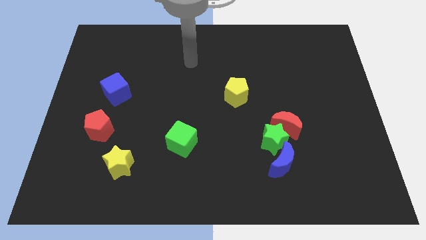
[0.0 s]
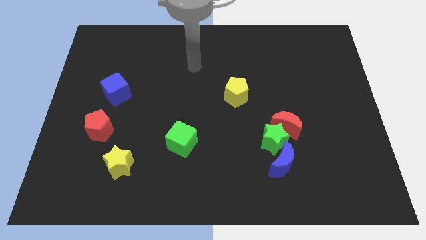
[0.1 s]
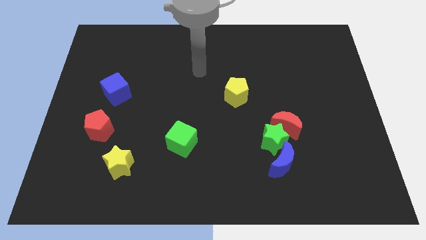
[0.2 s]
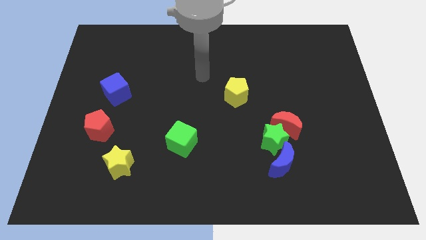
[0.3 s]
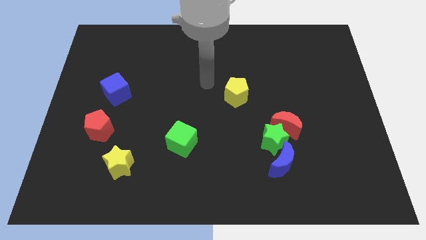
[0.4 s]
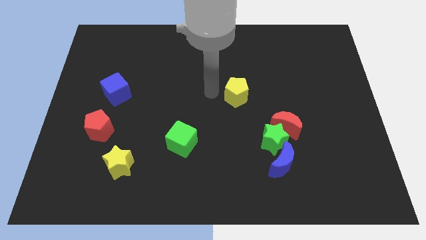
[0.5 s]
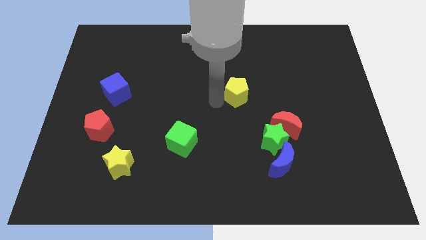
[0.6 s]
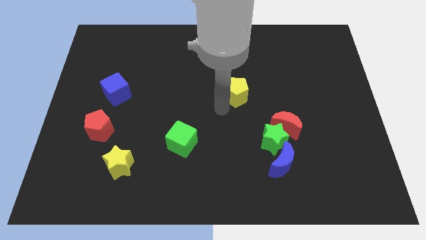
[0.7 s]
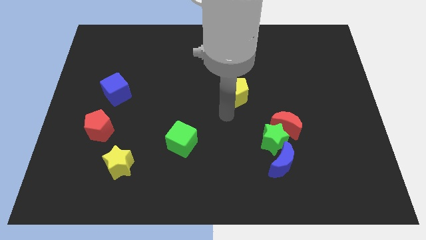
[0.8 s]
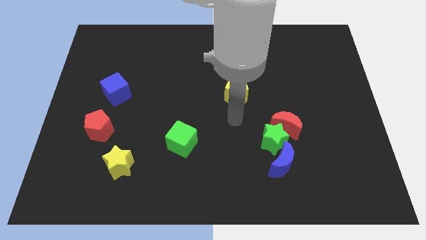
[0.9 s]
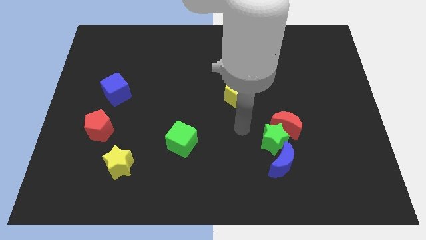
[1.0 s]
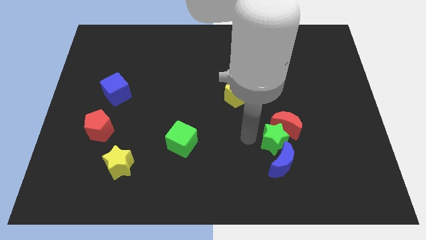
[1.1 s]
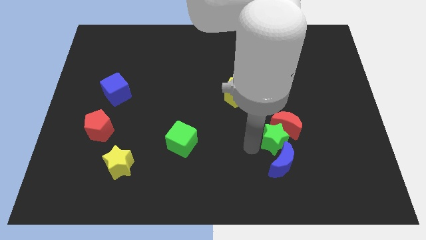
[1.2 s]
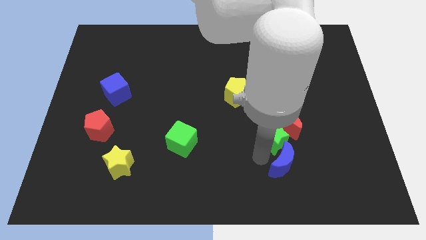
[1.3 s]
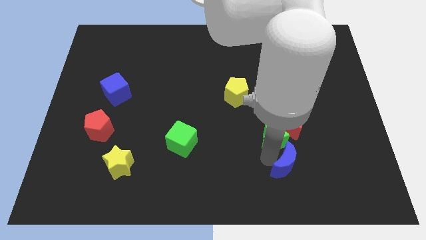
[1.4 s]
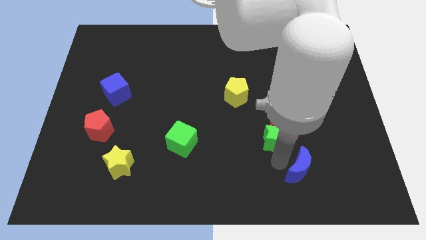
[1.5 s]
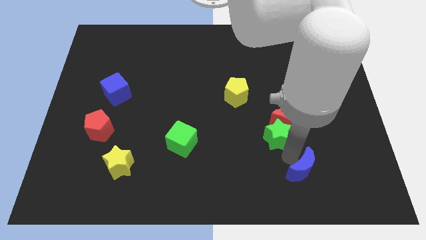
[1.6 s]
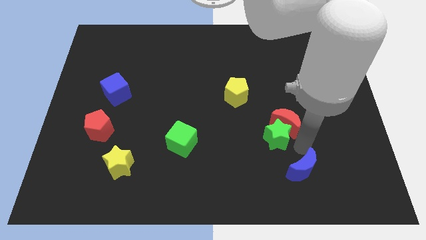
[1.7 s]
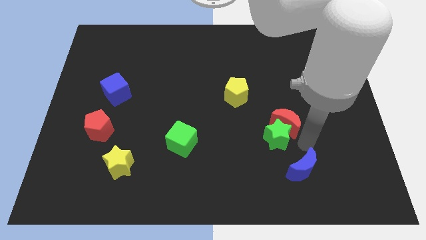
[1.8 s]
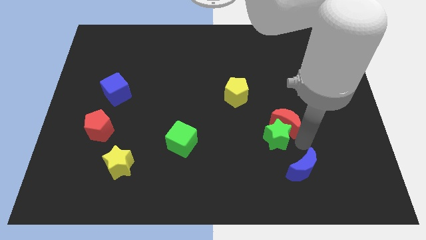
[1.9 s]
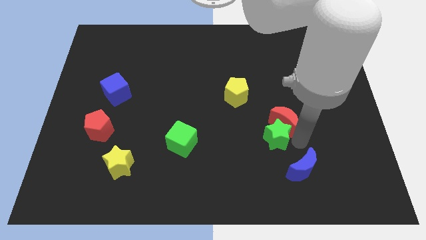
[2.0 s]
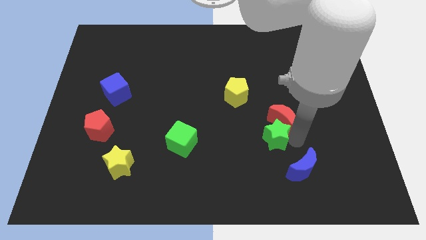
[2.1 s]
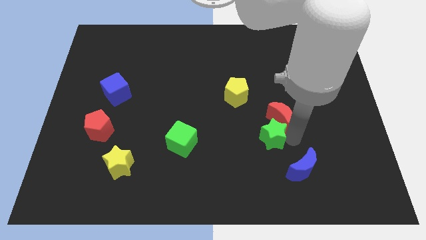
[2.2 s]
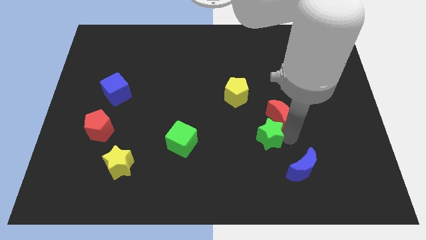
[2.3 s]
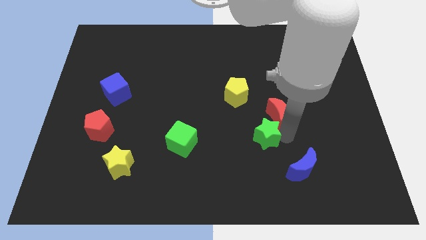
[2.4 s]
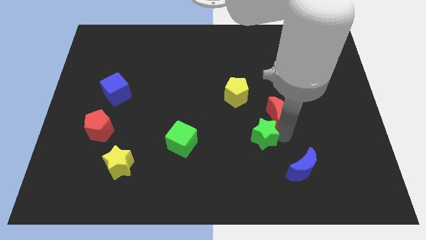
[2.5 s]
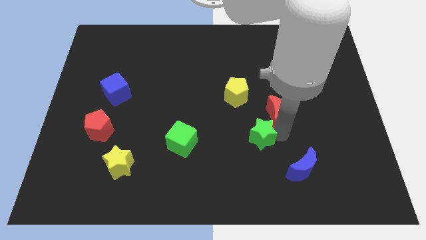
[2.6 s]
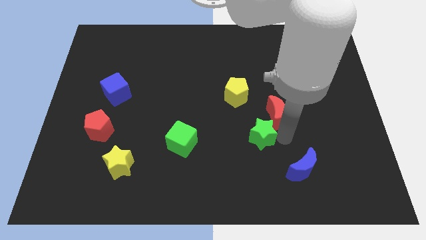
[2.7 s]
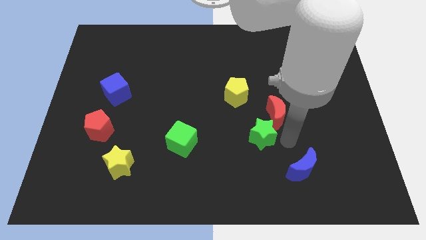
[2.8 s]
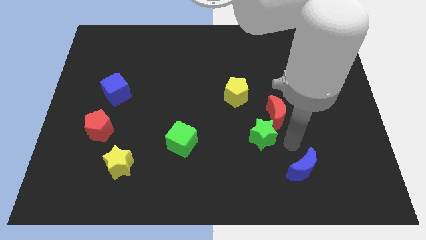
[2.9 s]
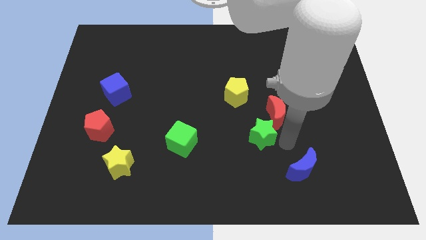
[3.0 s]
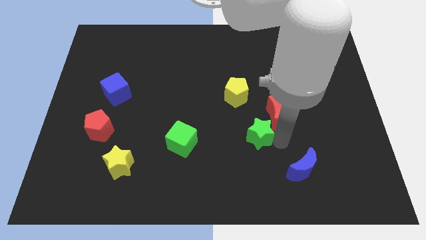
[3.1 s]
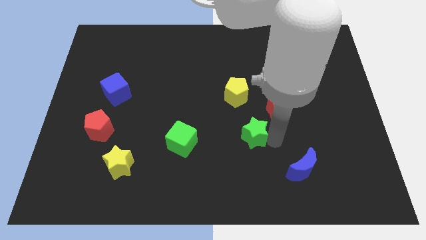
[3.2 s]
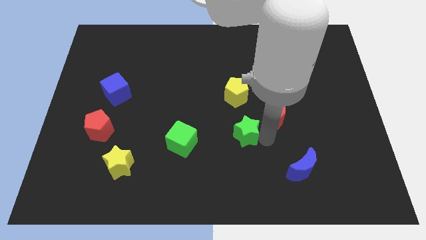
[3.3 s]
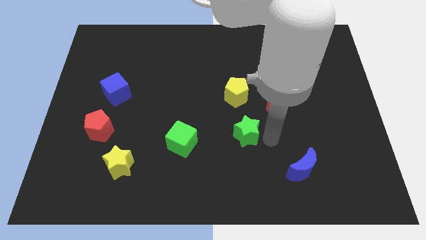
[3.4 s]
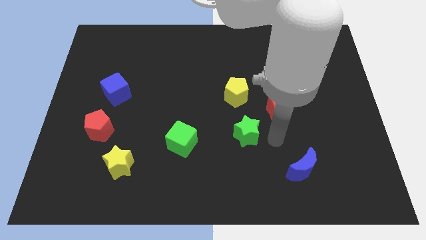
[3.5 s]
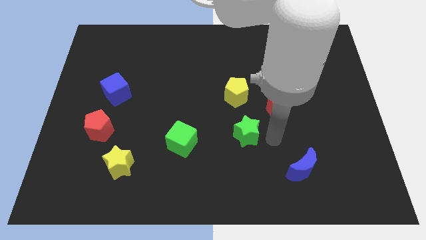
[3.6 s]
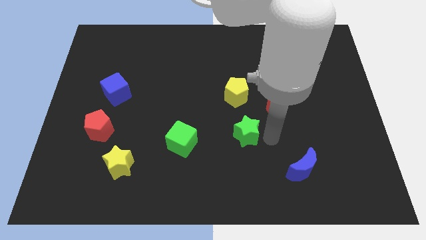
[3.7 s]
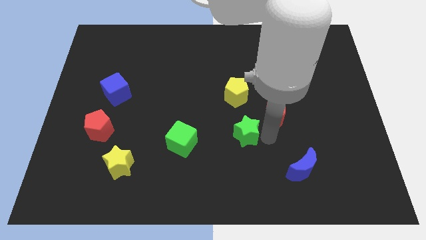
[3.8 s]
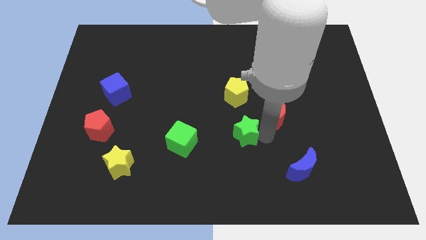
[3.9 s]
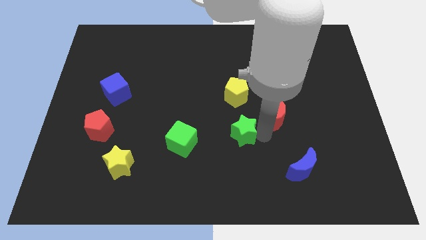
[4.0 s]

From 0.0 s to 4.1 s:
move the green star away from the red moon and blue moon

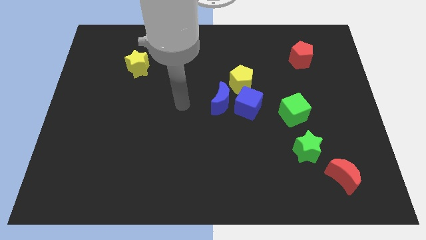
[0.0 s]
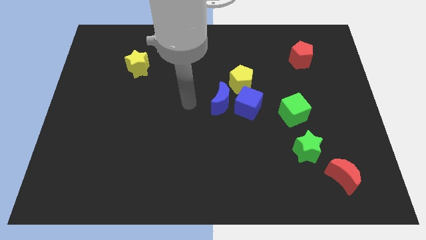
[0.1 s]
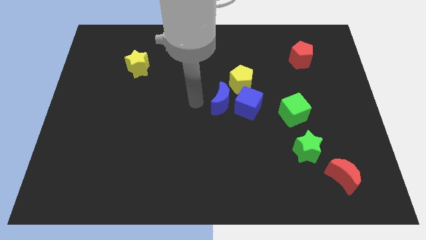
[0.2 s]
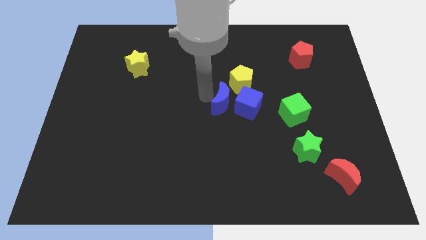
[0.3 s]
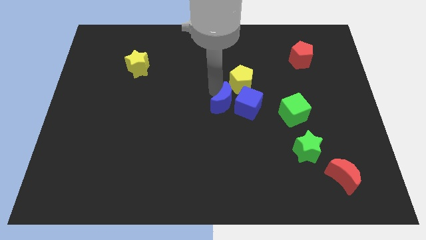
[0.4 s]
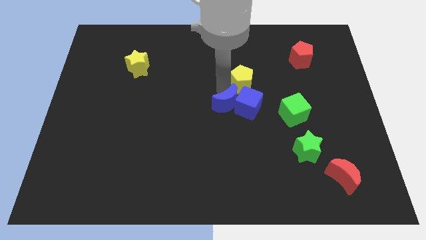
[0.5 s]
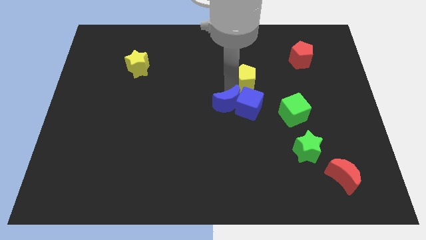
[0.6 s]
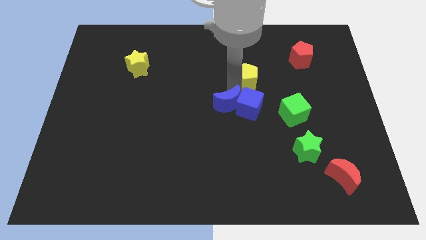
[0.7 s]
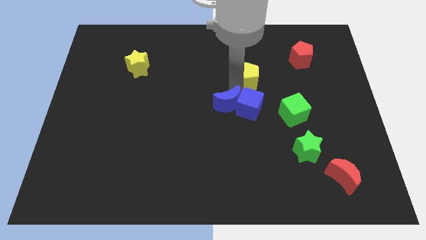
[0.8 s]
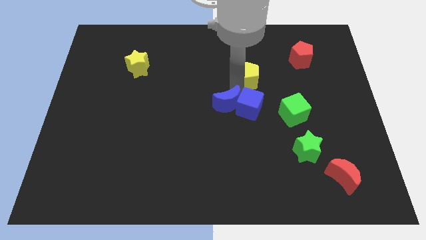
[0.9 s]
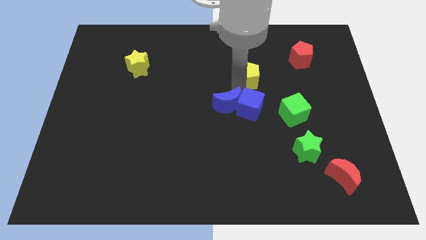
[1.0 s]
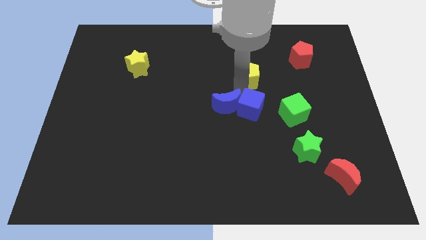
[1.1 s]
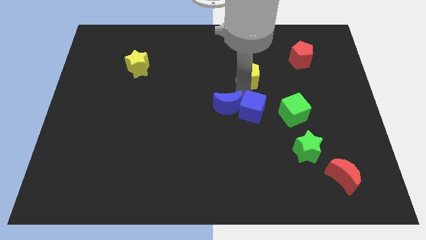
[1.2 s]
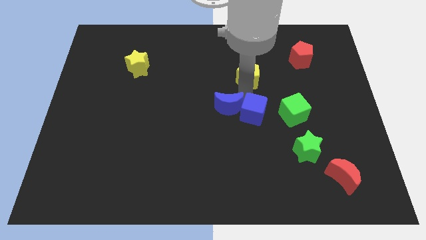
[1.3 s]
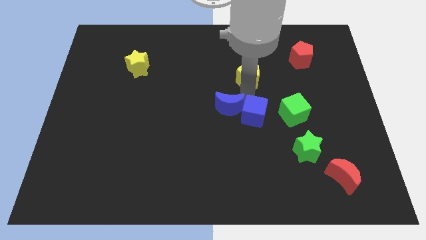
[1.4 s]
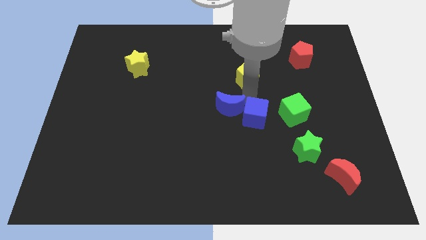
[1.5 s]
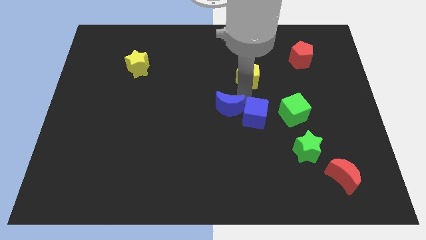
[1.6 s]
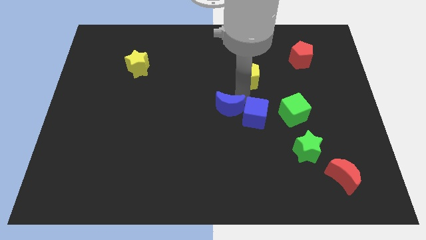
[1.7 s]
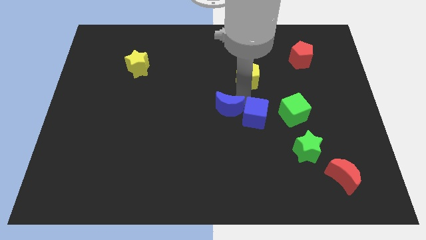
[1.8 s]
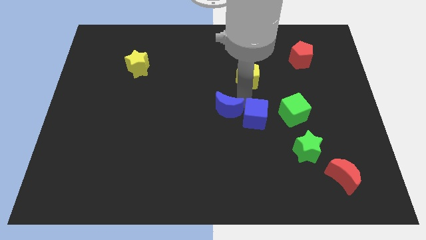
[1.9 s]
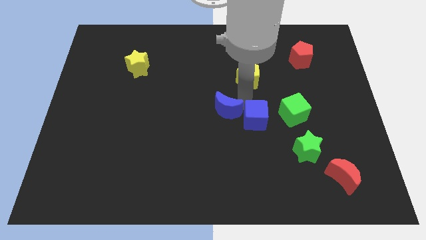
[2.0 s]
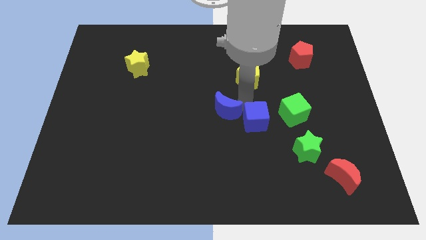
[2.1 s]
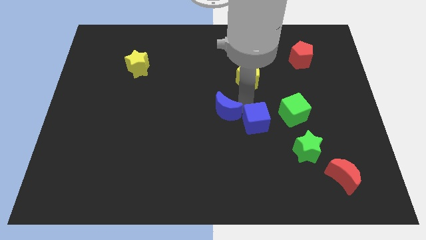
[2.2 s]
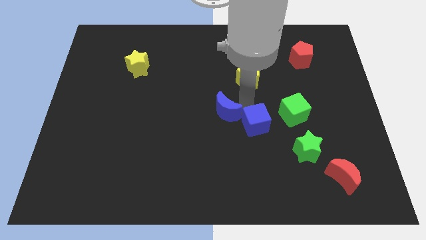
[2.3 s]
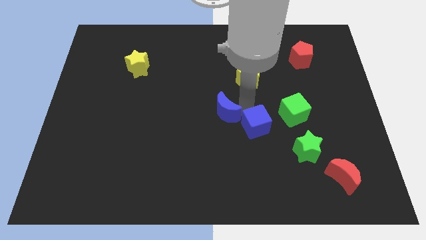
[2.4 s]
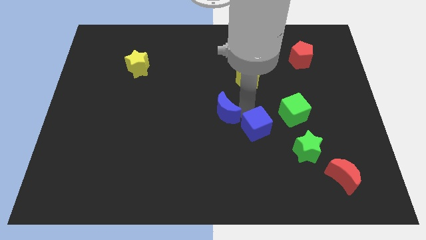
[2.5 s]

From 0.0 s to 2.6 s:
separate the blue cube from the blue moon and yellow pentagon

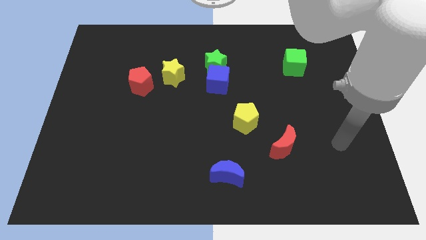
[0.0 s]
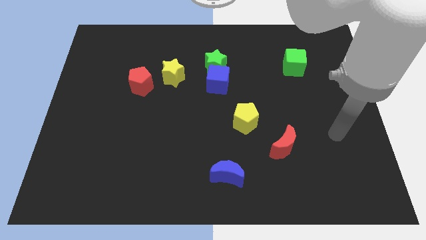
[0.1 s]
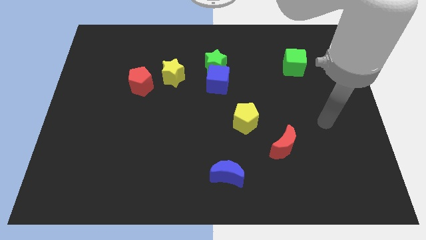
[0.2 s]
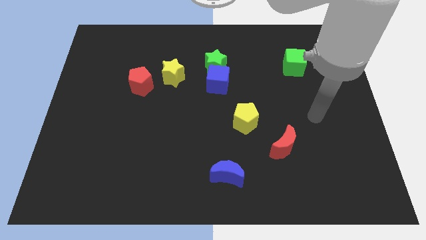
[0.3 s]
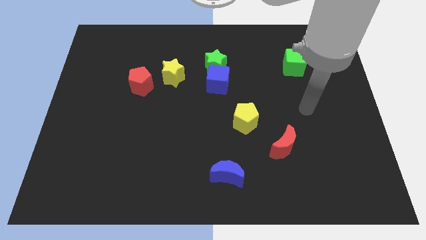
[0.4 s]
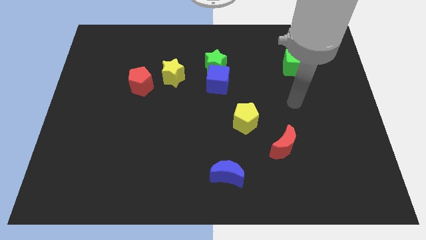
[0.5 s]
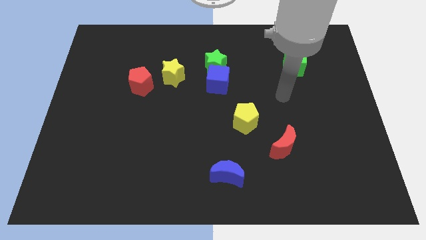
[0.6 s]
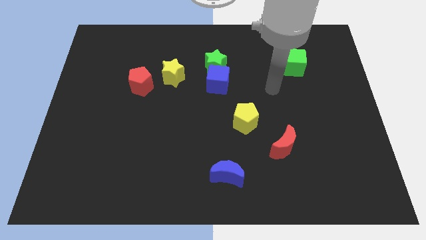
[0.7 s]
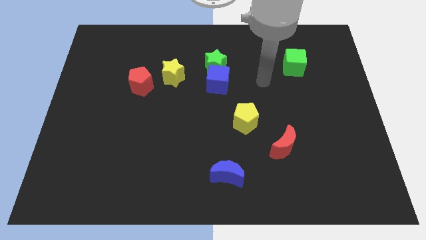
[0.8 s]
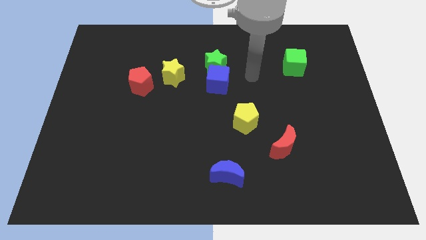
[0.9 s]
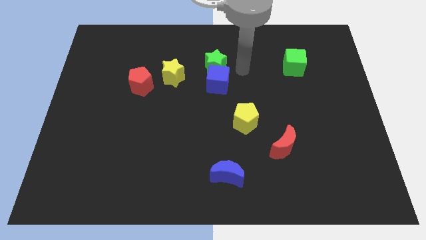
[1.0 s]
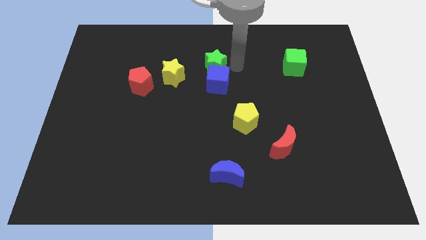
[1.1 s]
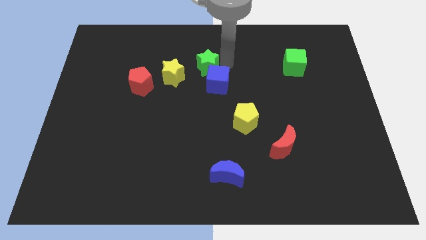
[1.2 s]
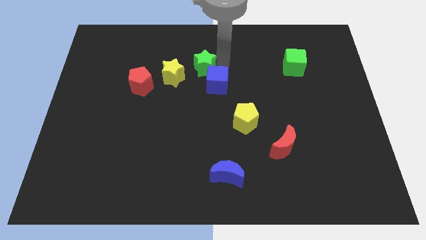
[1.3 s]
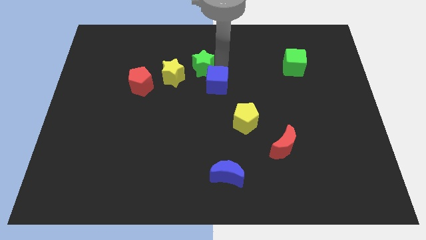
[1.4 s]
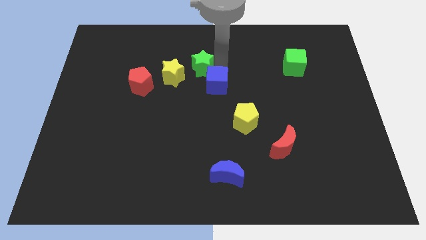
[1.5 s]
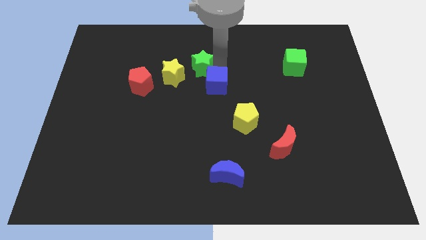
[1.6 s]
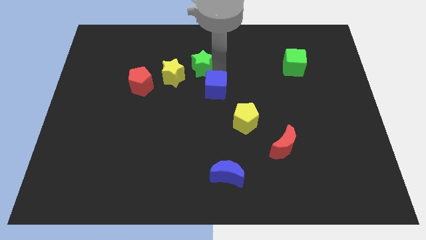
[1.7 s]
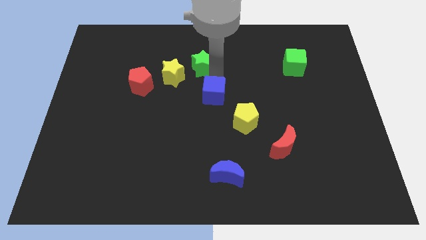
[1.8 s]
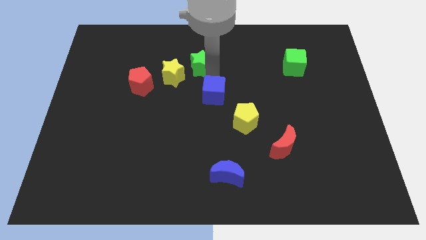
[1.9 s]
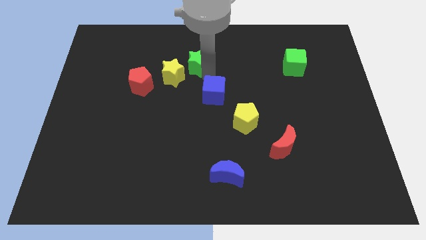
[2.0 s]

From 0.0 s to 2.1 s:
move the blue cube away from the green star

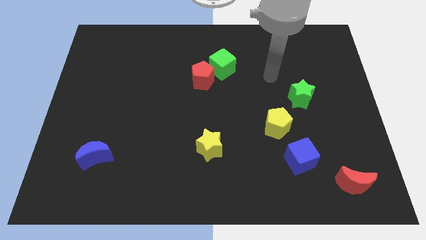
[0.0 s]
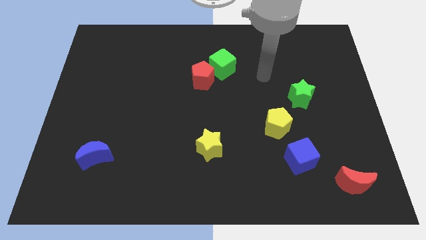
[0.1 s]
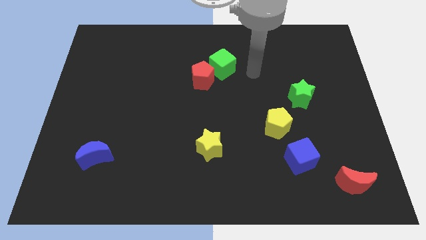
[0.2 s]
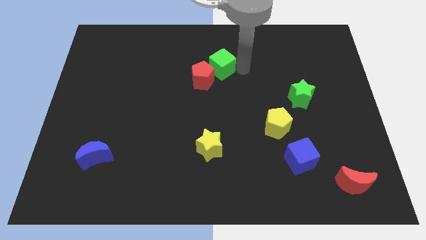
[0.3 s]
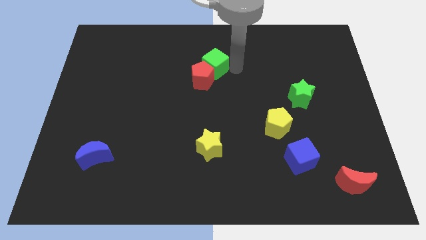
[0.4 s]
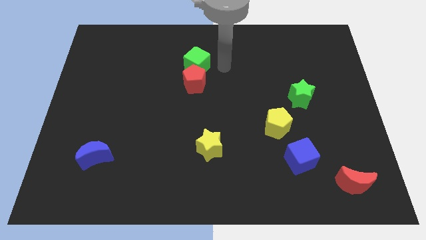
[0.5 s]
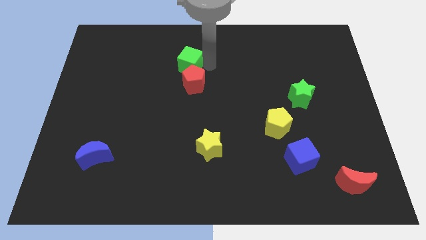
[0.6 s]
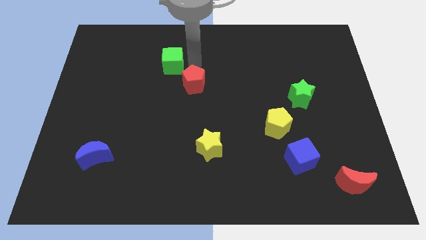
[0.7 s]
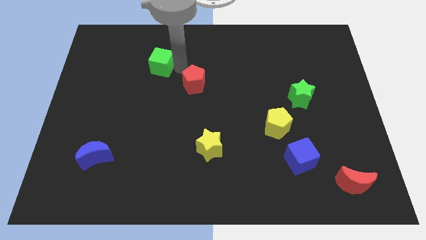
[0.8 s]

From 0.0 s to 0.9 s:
pull the red pentagon apart from the green cube
